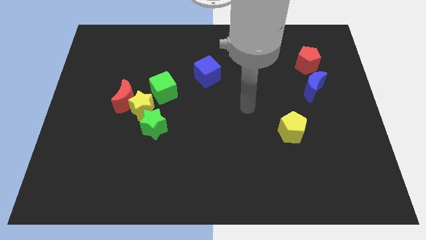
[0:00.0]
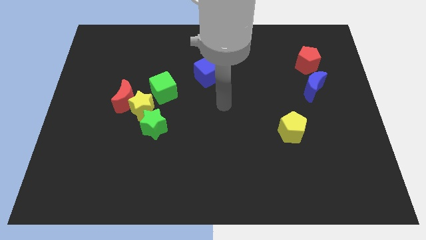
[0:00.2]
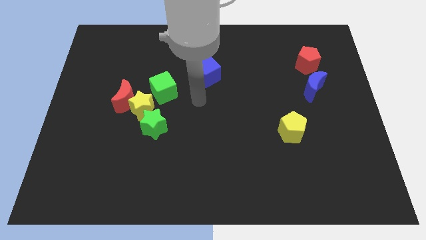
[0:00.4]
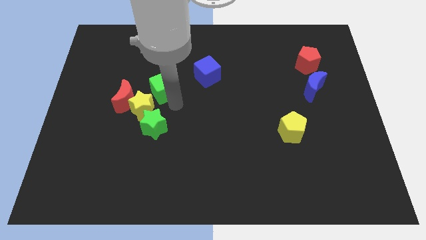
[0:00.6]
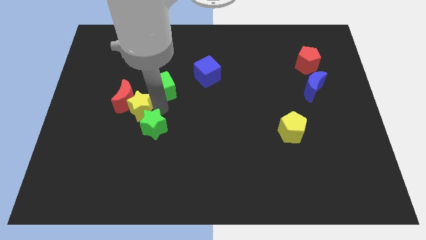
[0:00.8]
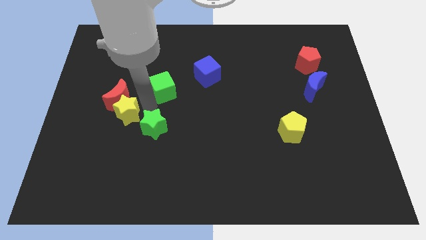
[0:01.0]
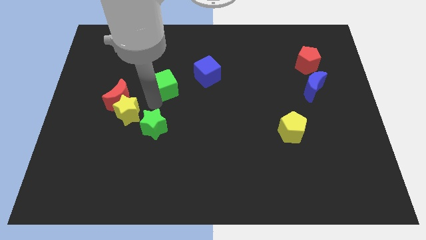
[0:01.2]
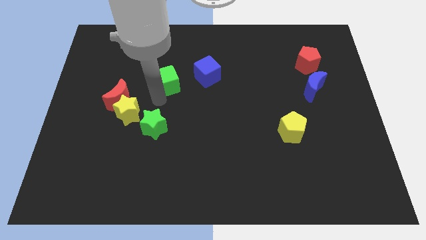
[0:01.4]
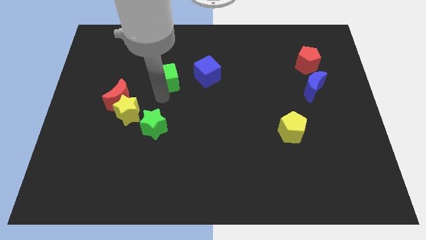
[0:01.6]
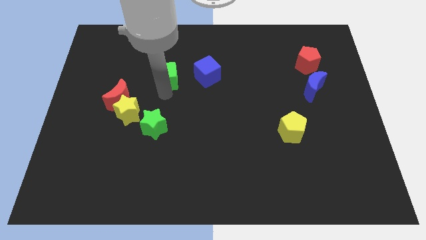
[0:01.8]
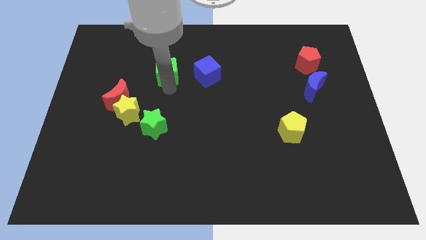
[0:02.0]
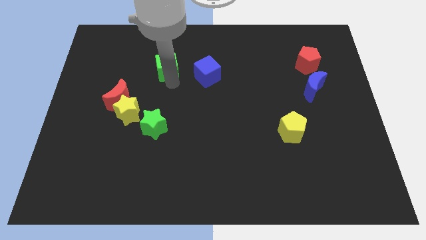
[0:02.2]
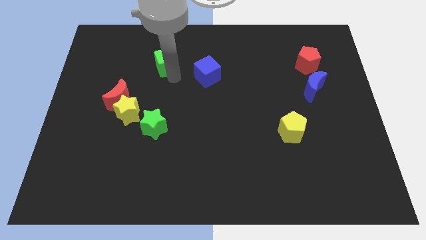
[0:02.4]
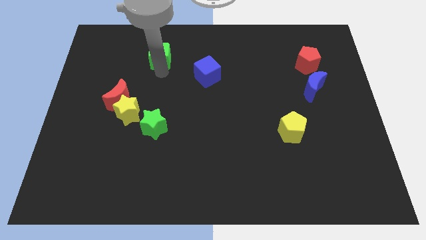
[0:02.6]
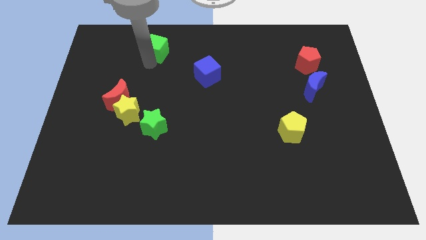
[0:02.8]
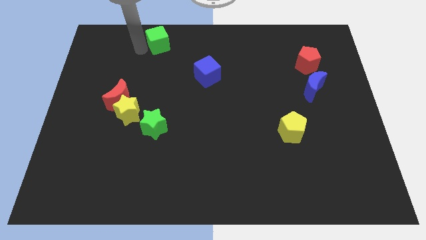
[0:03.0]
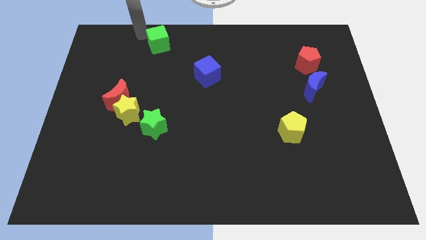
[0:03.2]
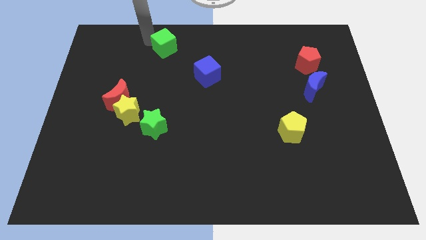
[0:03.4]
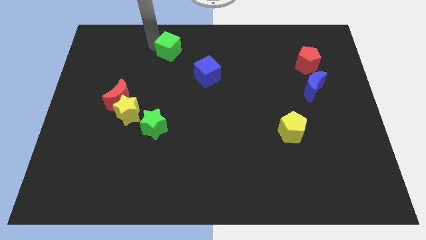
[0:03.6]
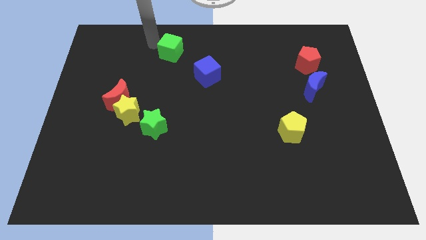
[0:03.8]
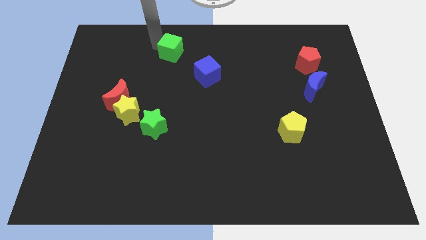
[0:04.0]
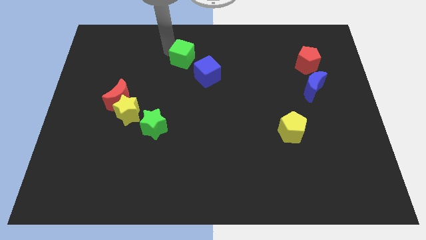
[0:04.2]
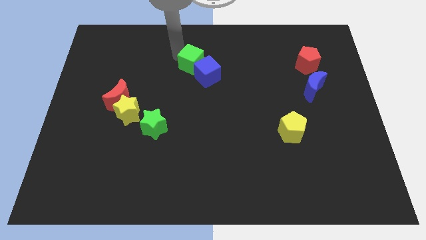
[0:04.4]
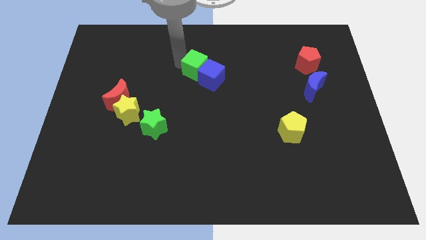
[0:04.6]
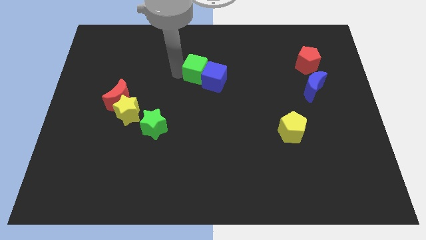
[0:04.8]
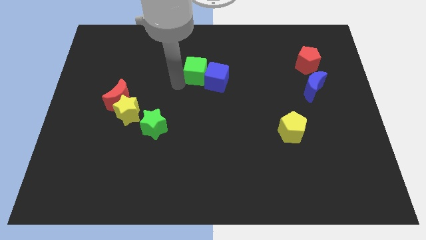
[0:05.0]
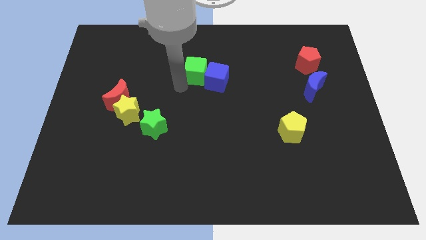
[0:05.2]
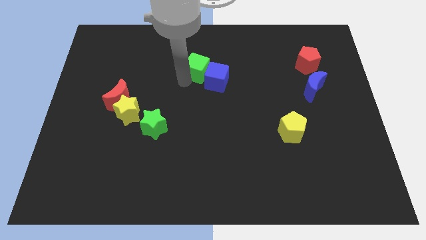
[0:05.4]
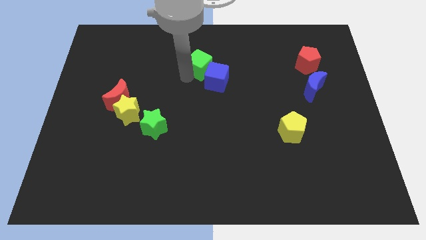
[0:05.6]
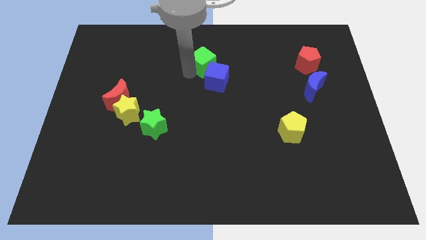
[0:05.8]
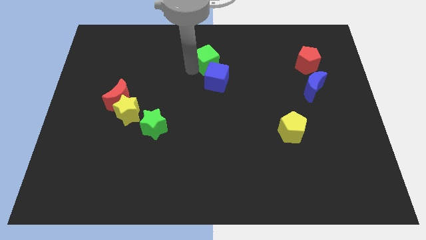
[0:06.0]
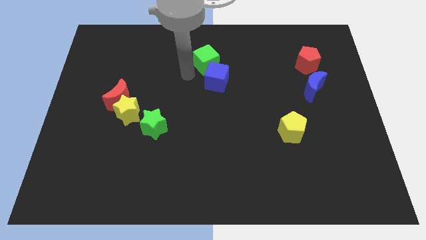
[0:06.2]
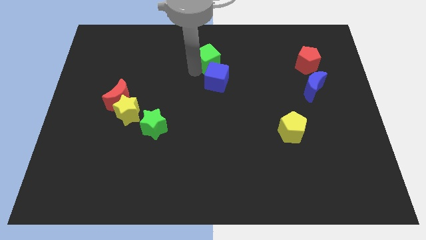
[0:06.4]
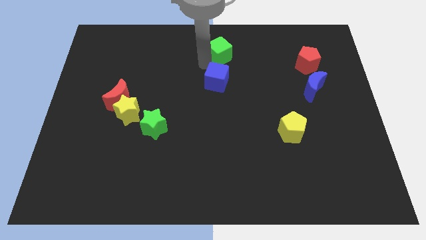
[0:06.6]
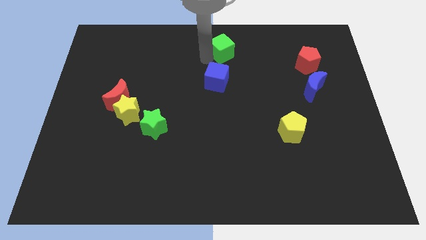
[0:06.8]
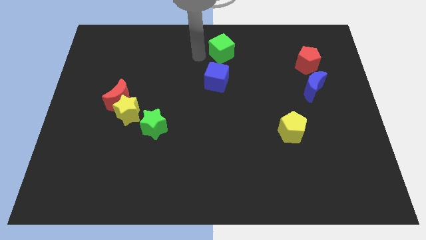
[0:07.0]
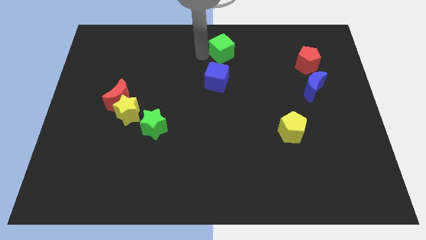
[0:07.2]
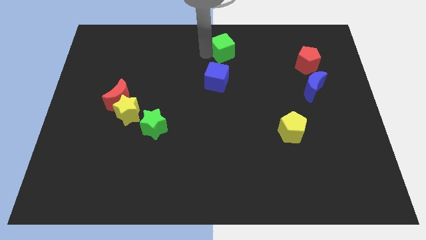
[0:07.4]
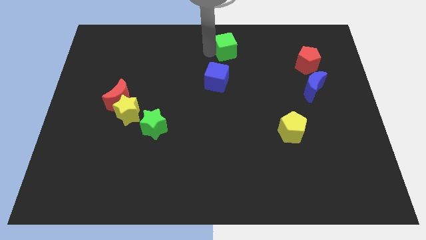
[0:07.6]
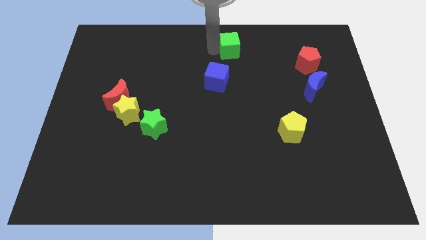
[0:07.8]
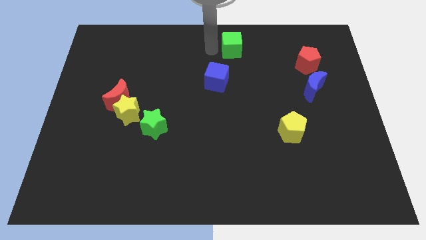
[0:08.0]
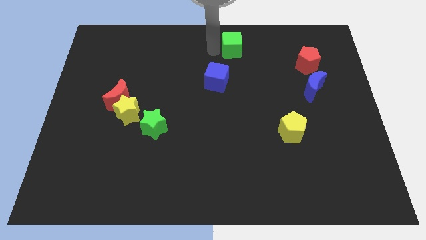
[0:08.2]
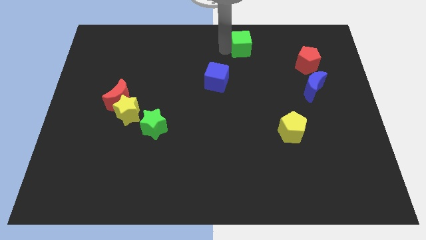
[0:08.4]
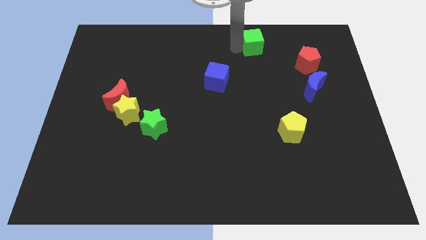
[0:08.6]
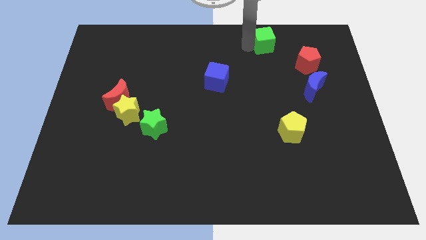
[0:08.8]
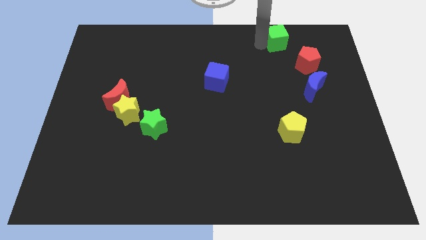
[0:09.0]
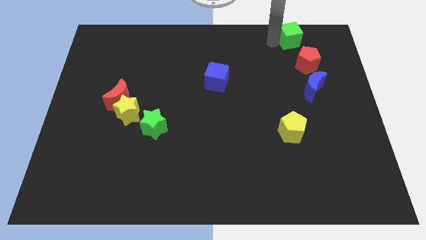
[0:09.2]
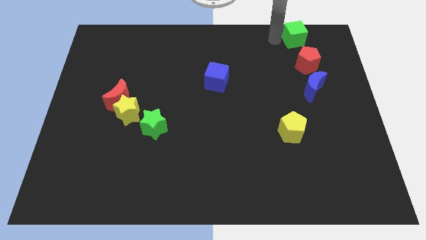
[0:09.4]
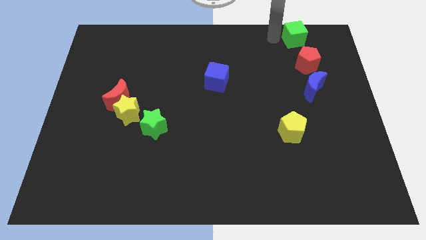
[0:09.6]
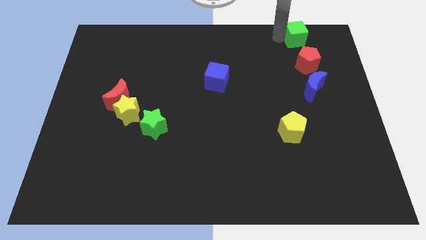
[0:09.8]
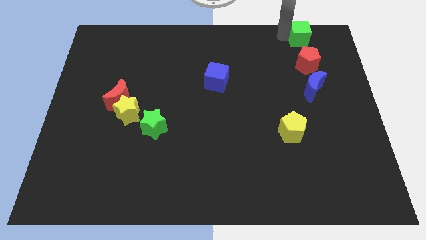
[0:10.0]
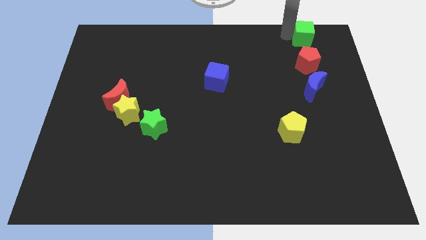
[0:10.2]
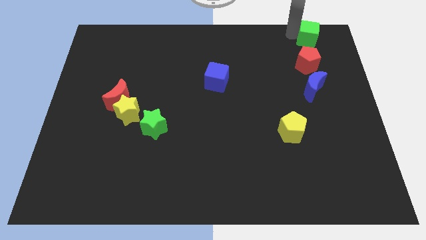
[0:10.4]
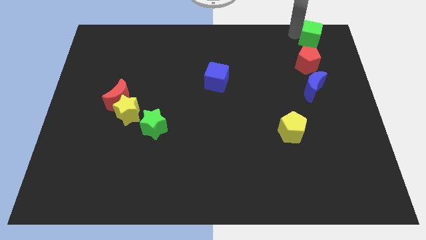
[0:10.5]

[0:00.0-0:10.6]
slide the green cube to the top right of the board
